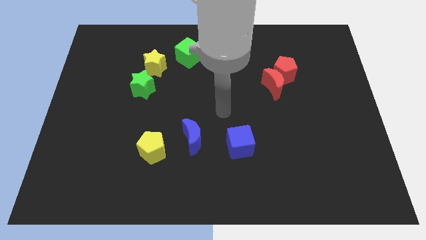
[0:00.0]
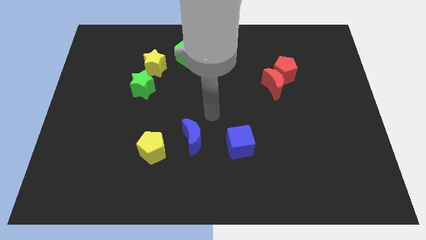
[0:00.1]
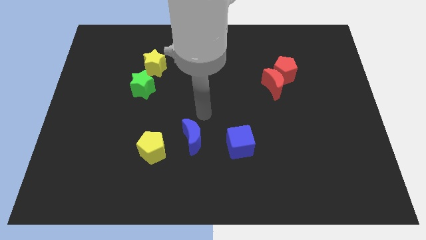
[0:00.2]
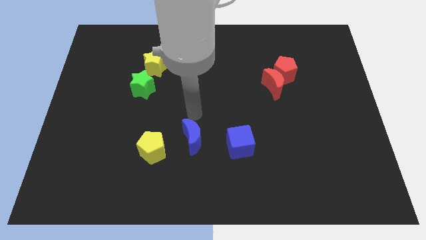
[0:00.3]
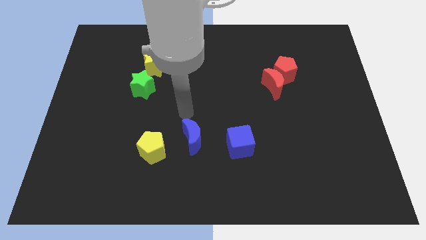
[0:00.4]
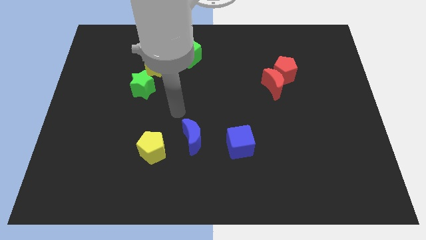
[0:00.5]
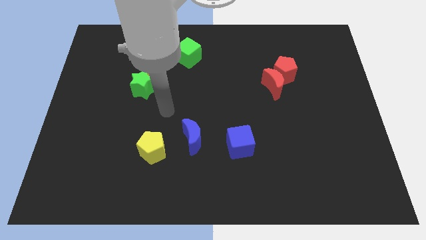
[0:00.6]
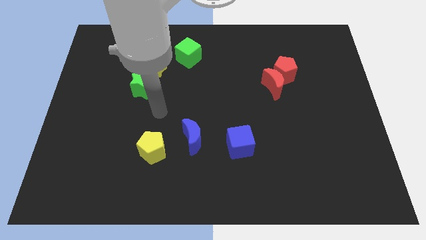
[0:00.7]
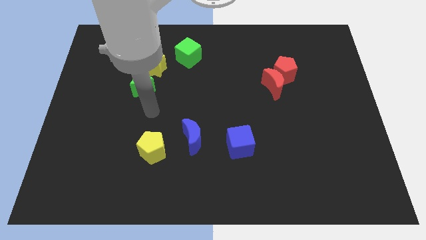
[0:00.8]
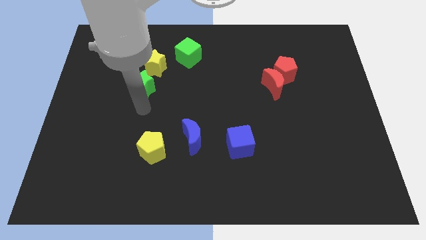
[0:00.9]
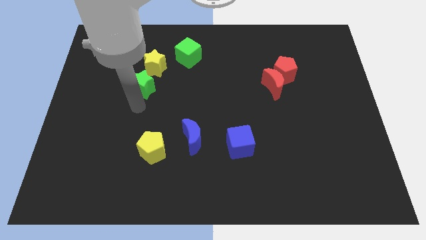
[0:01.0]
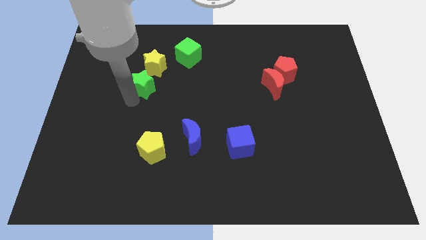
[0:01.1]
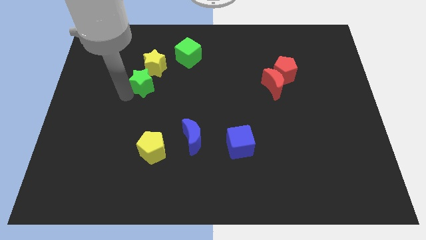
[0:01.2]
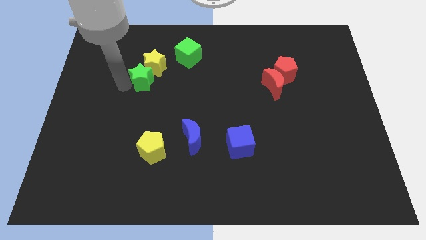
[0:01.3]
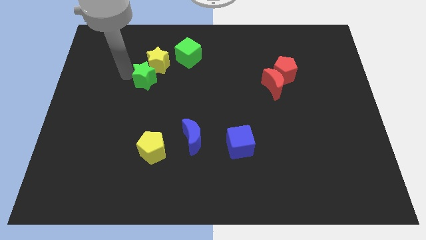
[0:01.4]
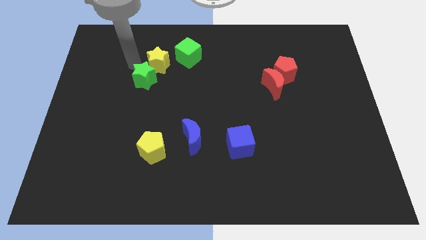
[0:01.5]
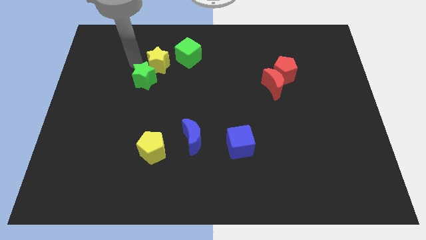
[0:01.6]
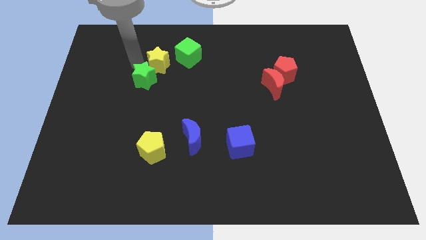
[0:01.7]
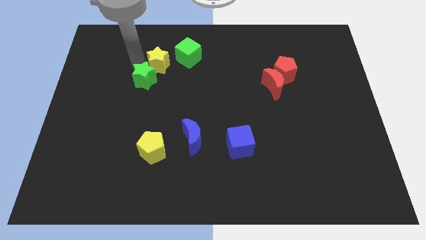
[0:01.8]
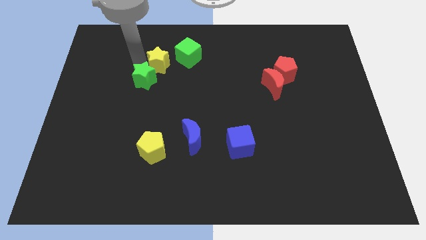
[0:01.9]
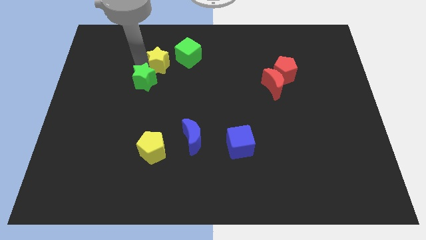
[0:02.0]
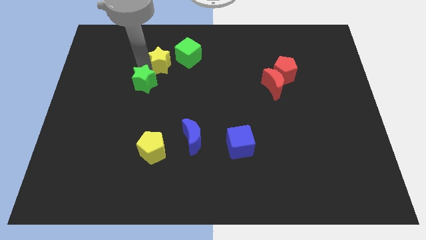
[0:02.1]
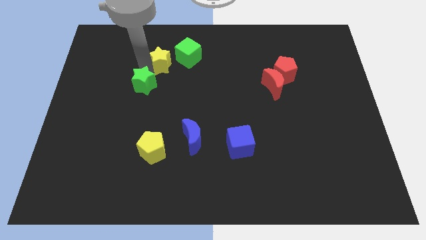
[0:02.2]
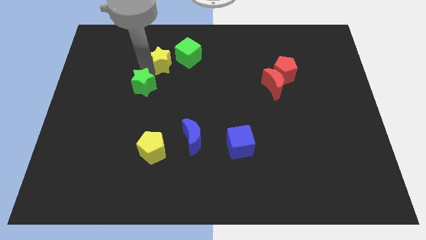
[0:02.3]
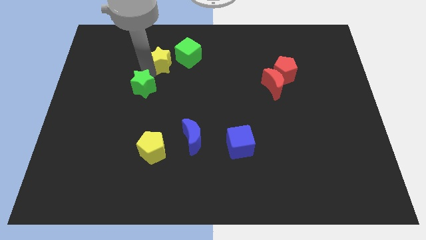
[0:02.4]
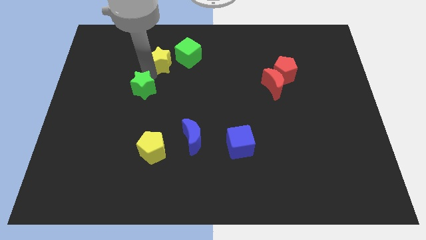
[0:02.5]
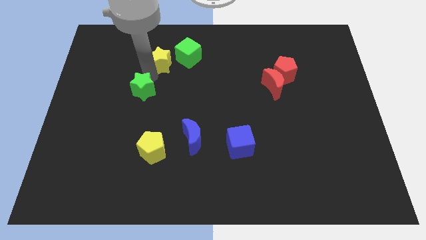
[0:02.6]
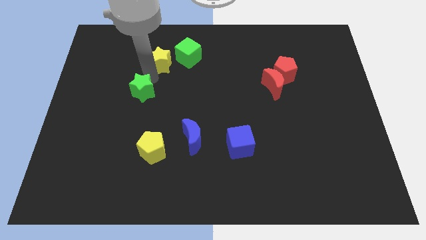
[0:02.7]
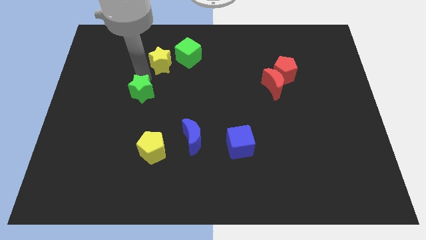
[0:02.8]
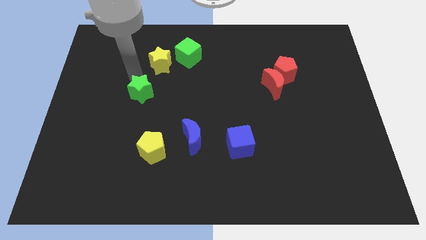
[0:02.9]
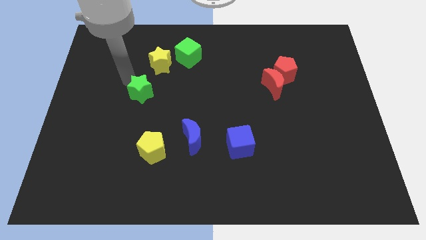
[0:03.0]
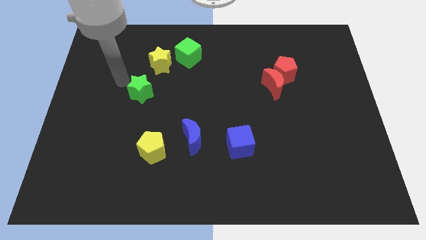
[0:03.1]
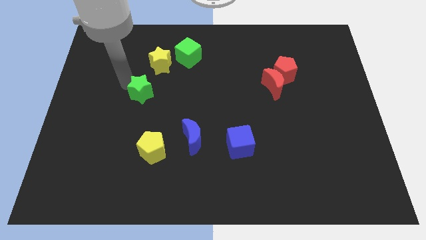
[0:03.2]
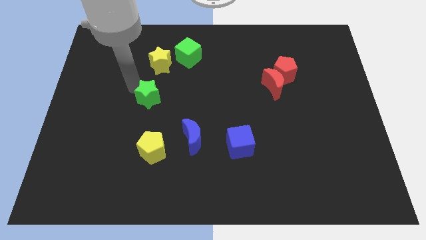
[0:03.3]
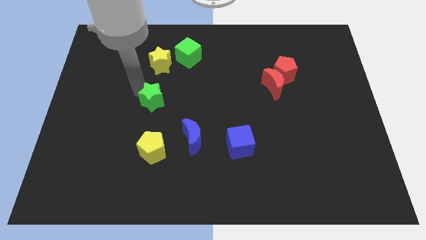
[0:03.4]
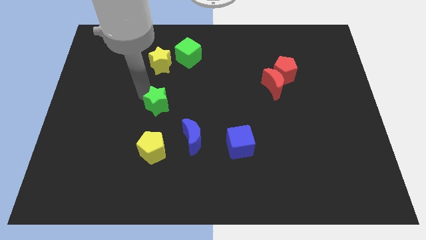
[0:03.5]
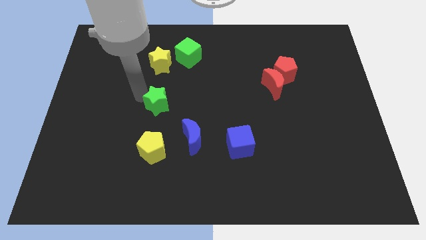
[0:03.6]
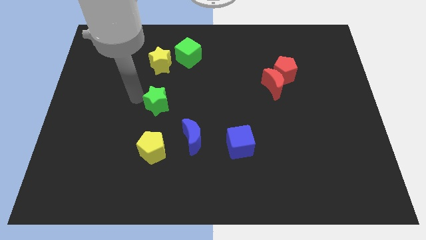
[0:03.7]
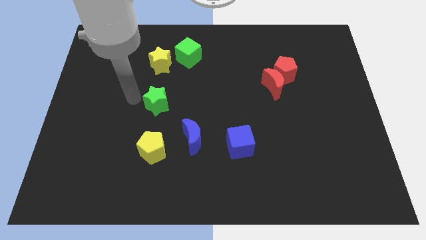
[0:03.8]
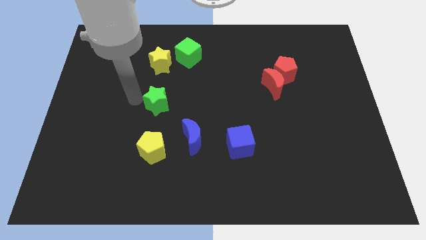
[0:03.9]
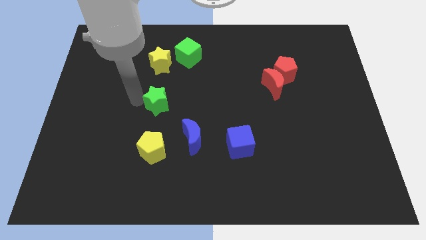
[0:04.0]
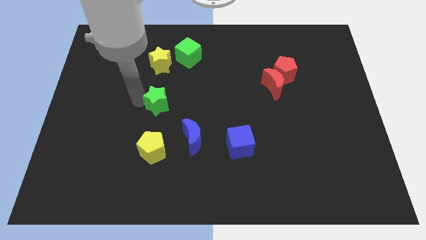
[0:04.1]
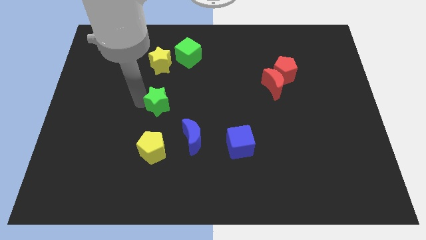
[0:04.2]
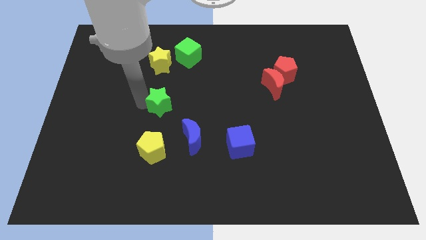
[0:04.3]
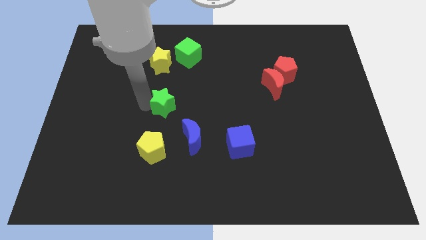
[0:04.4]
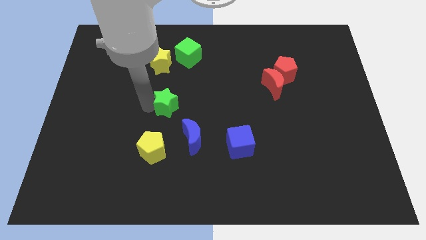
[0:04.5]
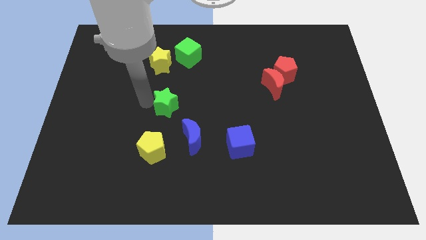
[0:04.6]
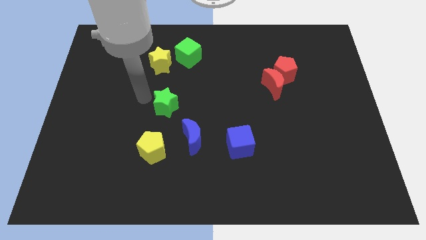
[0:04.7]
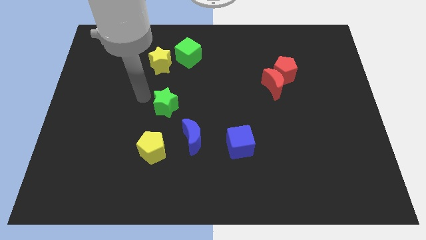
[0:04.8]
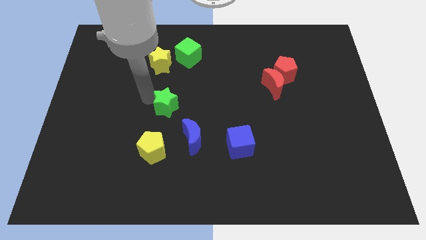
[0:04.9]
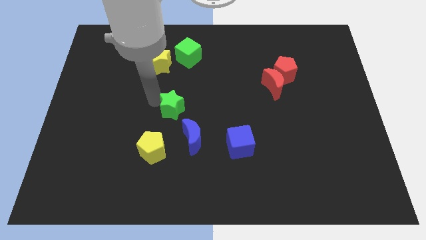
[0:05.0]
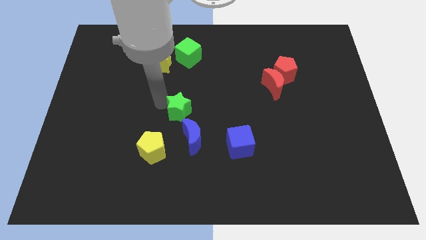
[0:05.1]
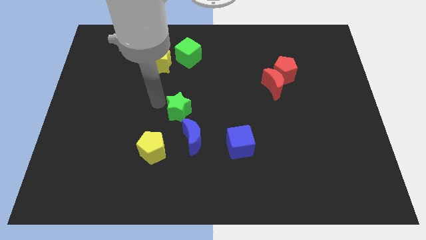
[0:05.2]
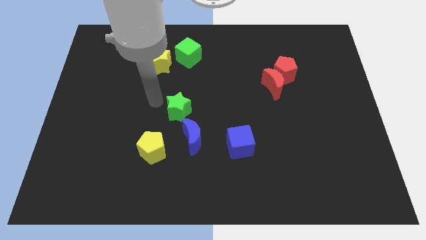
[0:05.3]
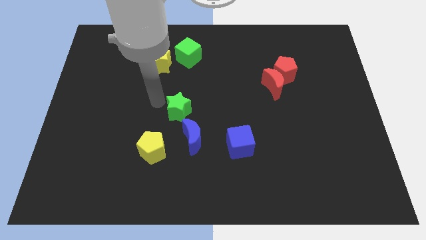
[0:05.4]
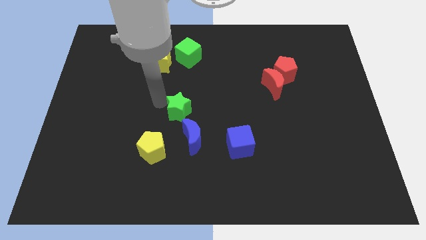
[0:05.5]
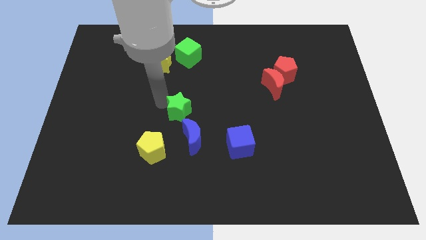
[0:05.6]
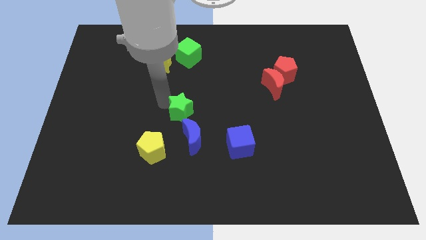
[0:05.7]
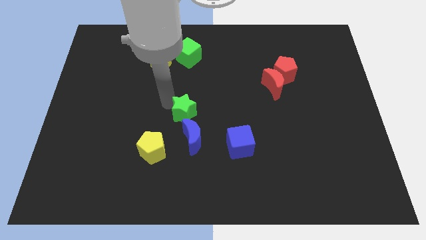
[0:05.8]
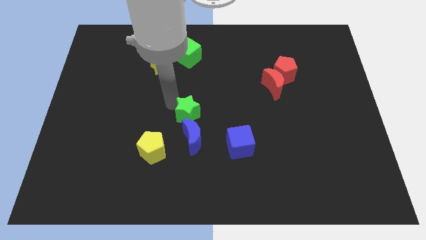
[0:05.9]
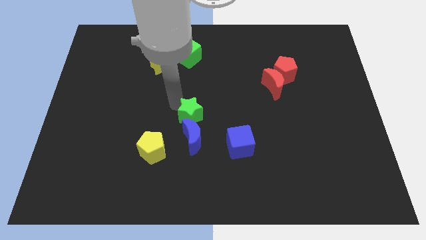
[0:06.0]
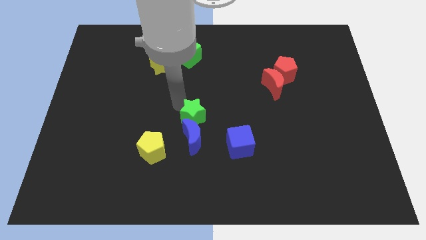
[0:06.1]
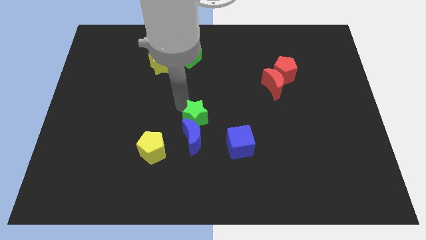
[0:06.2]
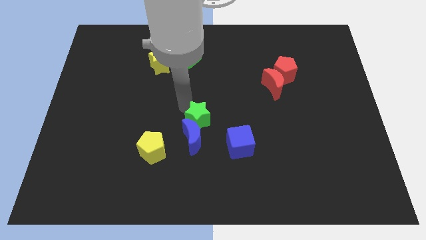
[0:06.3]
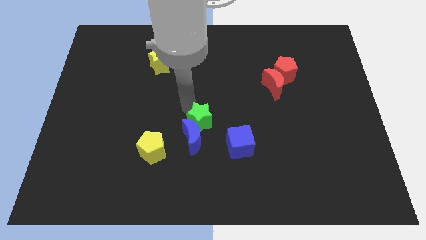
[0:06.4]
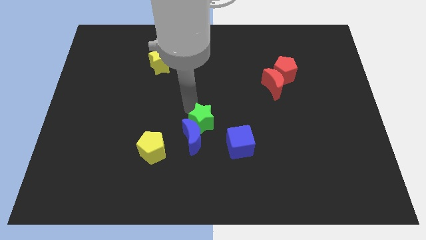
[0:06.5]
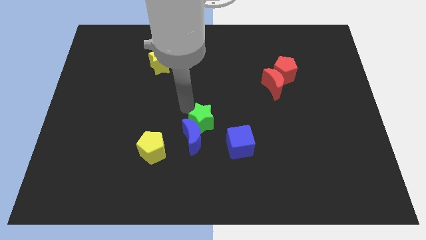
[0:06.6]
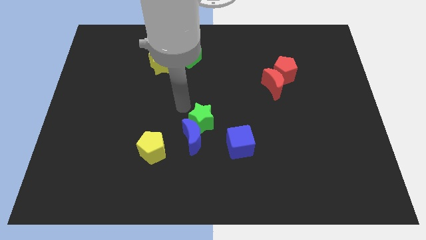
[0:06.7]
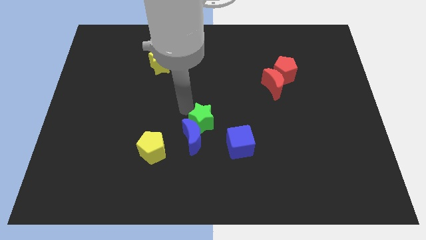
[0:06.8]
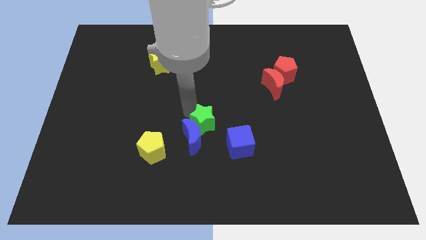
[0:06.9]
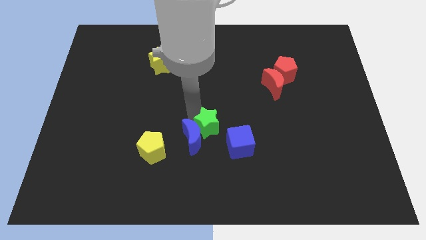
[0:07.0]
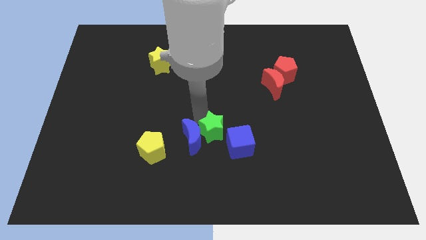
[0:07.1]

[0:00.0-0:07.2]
slide the green star down and right diagonally

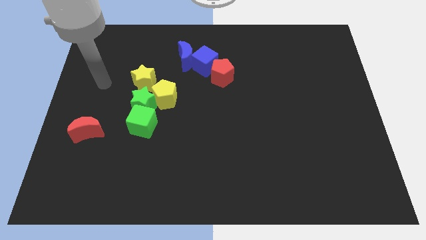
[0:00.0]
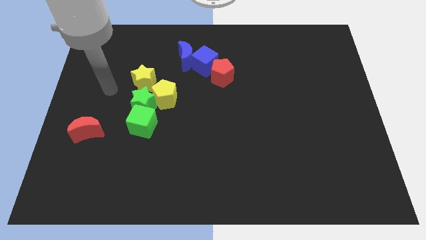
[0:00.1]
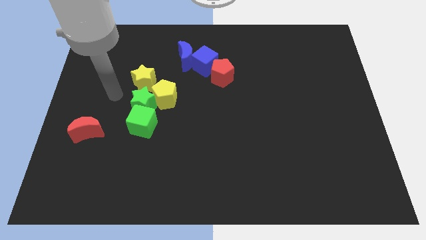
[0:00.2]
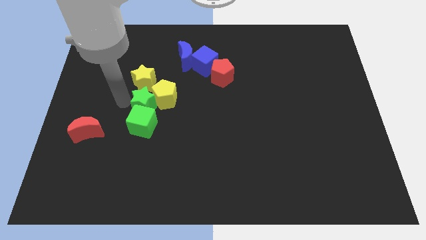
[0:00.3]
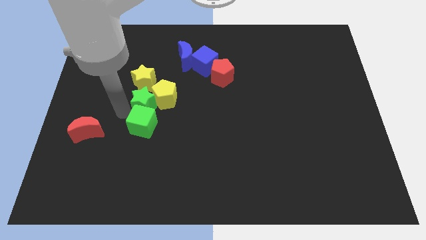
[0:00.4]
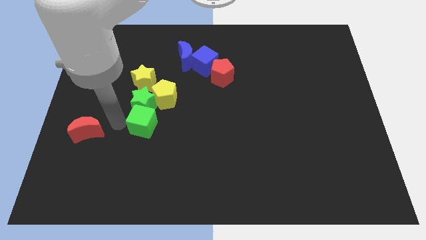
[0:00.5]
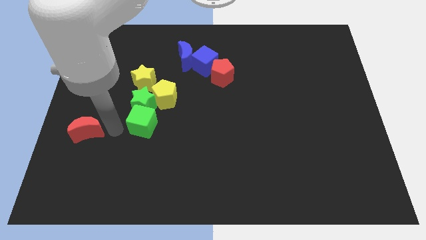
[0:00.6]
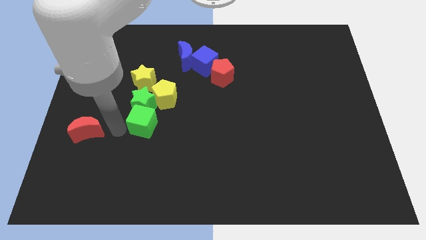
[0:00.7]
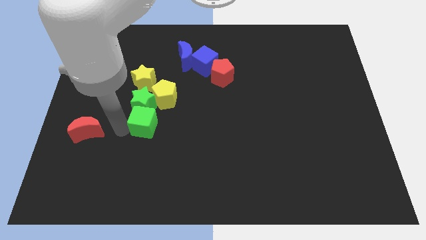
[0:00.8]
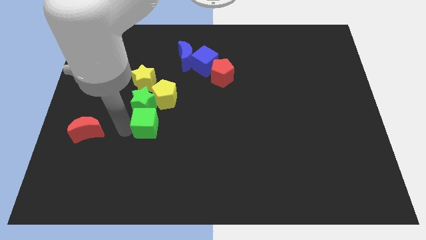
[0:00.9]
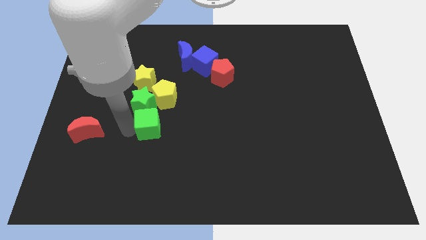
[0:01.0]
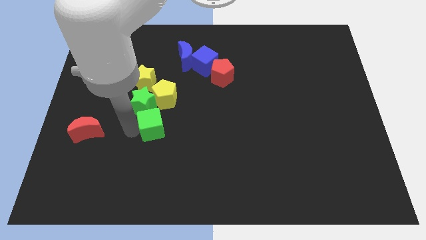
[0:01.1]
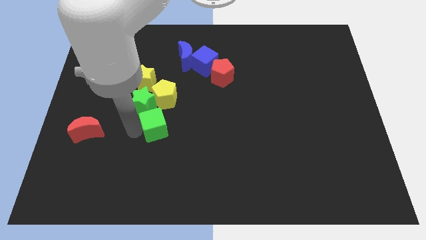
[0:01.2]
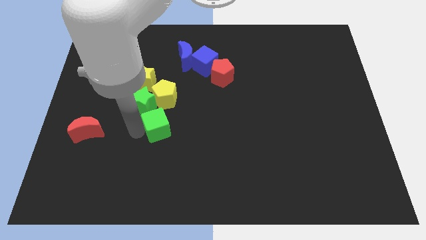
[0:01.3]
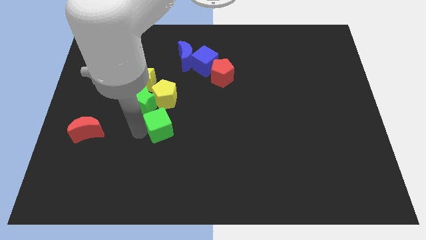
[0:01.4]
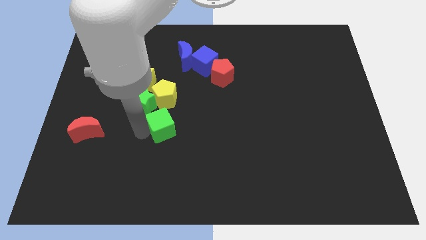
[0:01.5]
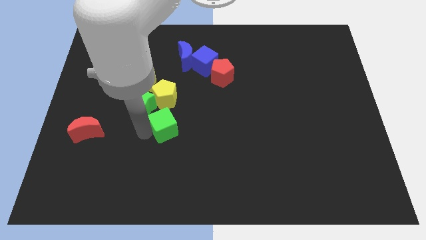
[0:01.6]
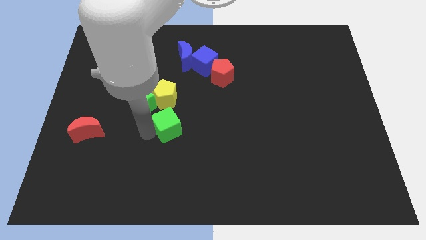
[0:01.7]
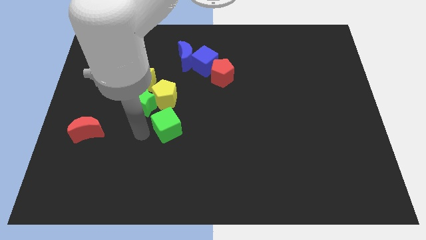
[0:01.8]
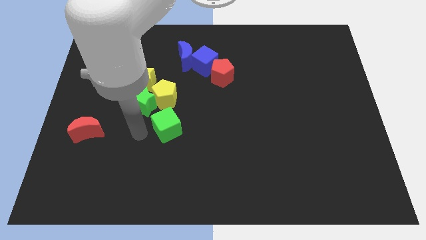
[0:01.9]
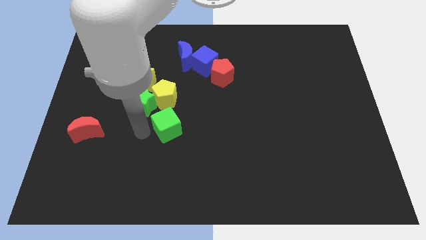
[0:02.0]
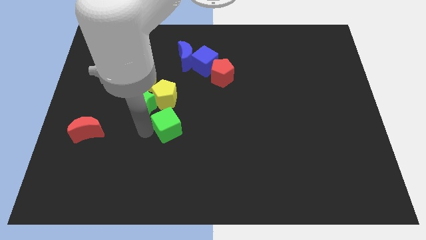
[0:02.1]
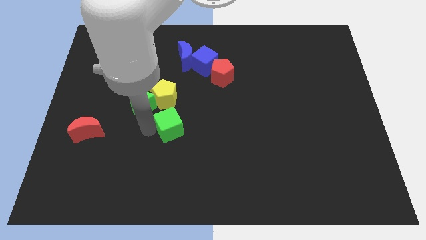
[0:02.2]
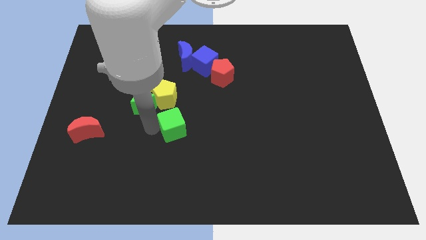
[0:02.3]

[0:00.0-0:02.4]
slightly slide the green cube to the right
